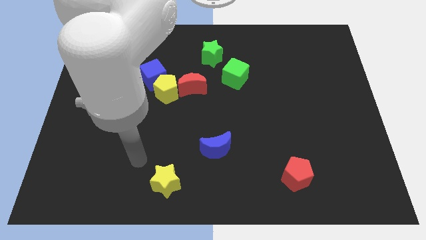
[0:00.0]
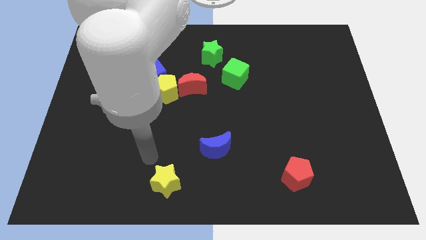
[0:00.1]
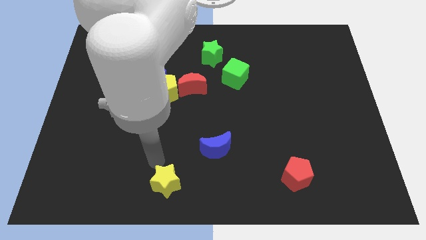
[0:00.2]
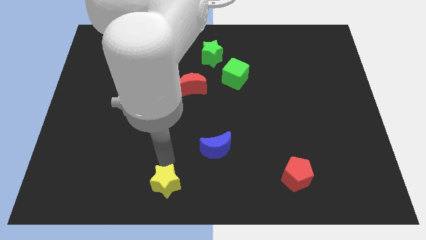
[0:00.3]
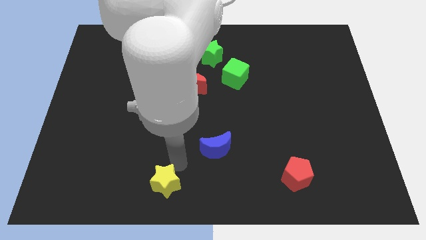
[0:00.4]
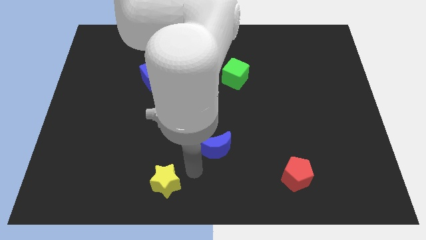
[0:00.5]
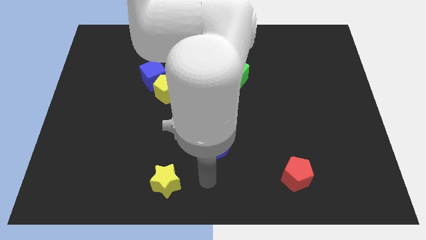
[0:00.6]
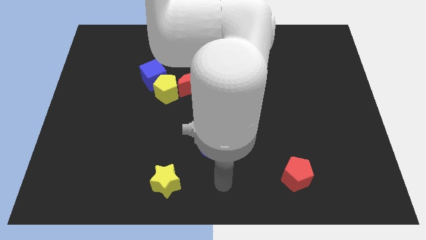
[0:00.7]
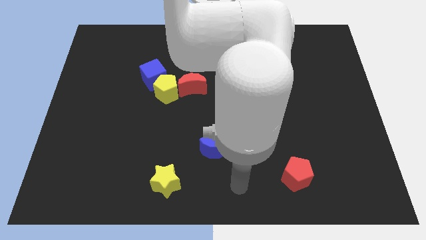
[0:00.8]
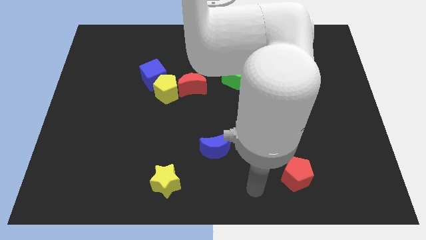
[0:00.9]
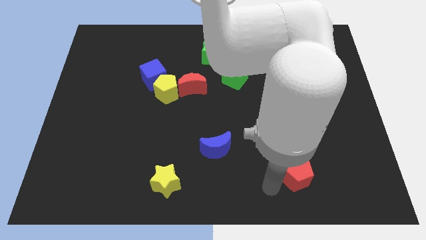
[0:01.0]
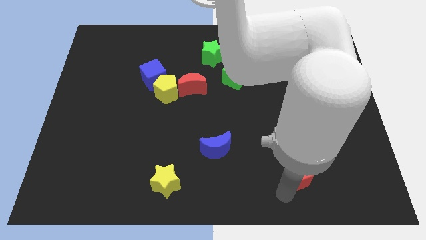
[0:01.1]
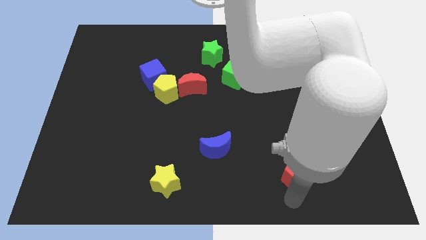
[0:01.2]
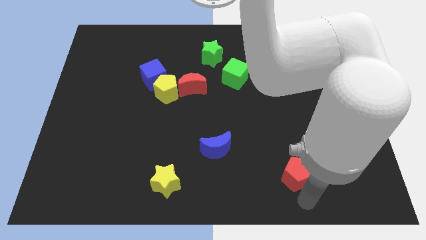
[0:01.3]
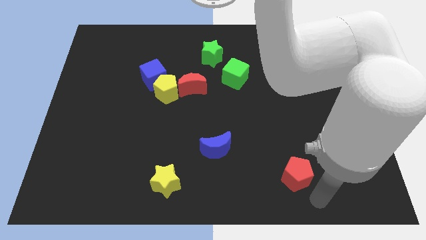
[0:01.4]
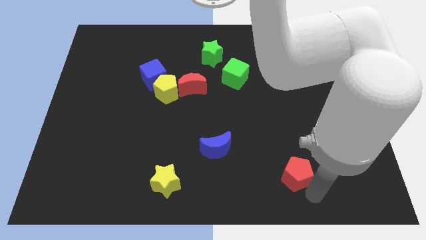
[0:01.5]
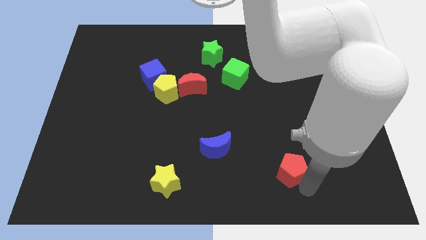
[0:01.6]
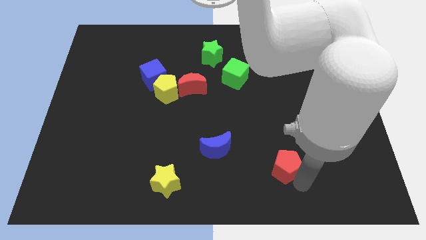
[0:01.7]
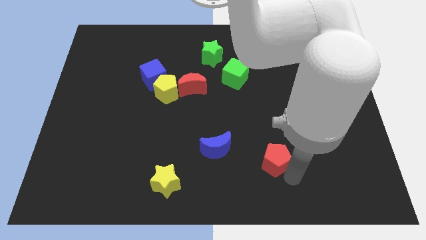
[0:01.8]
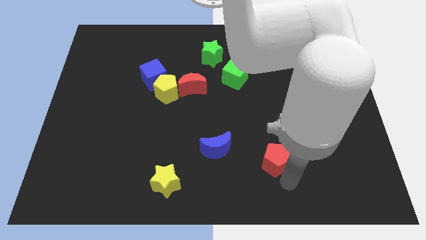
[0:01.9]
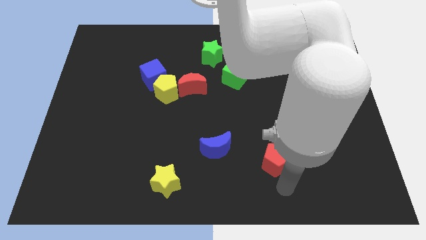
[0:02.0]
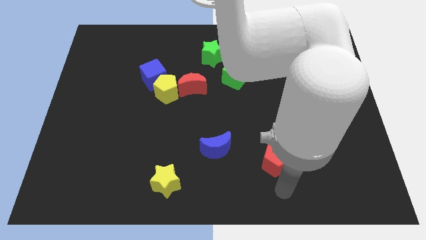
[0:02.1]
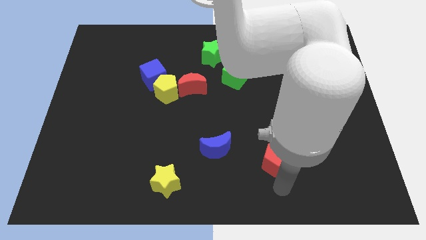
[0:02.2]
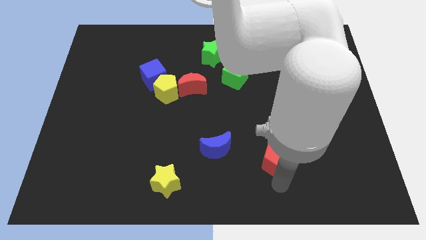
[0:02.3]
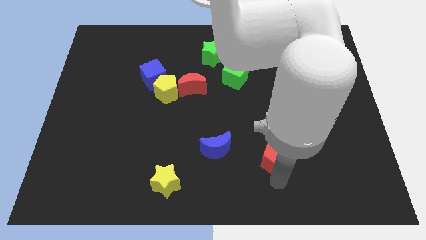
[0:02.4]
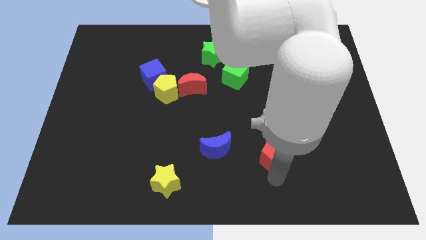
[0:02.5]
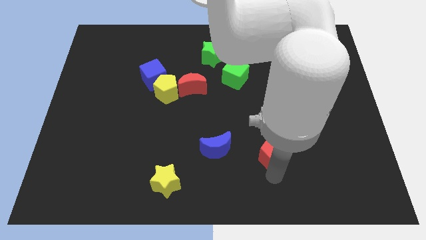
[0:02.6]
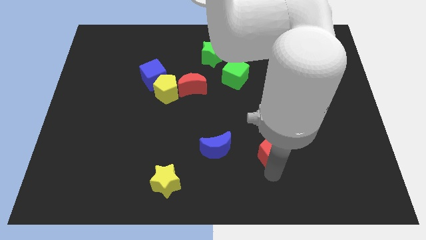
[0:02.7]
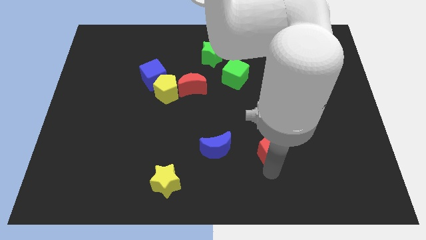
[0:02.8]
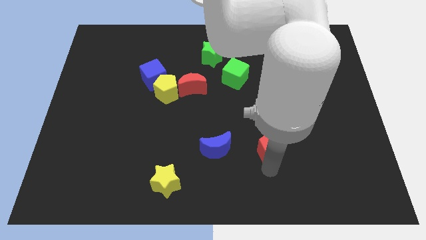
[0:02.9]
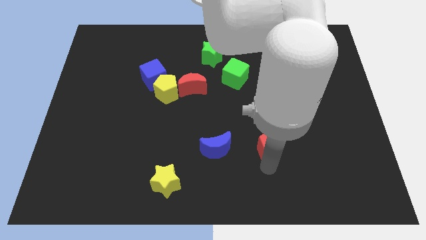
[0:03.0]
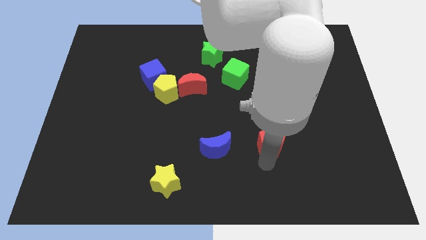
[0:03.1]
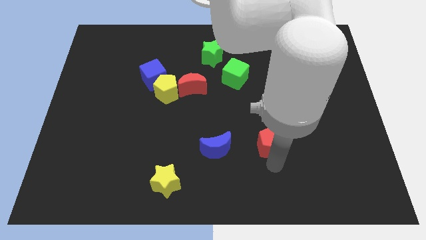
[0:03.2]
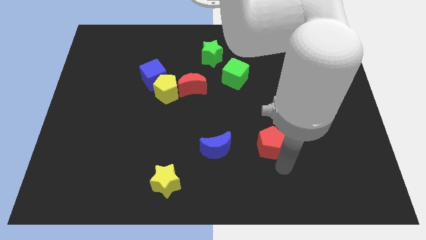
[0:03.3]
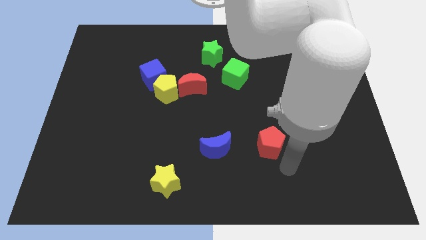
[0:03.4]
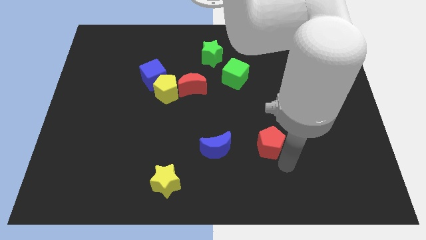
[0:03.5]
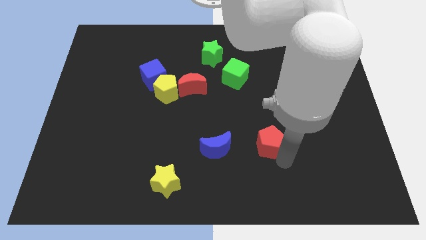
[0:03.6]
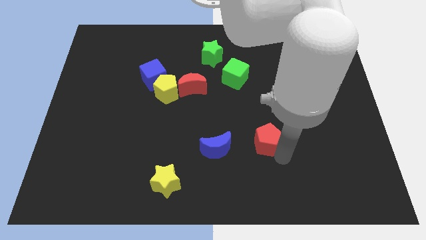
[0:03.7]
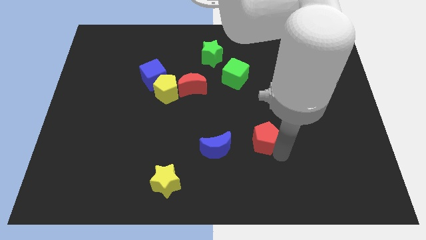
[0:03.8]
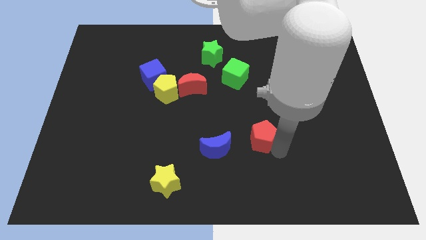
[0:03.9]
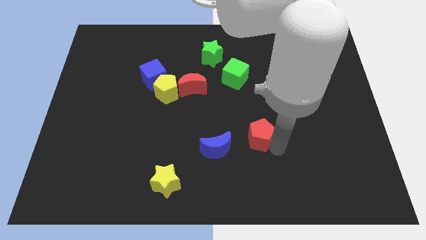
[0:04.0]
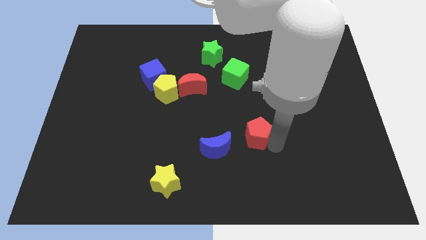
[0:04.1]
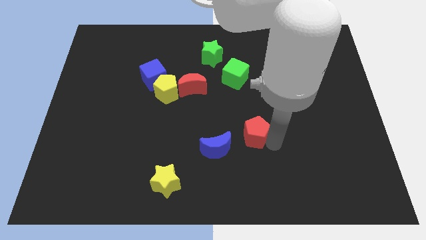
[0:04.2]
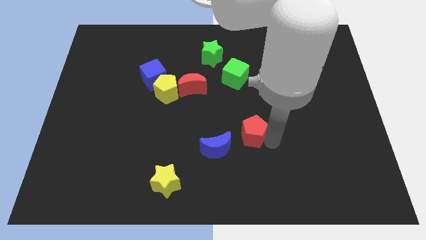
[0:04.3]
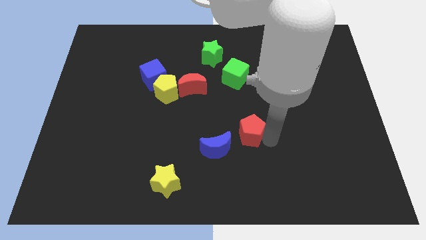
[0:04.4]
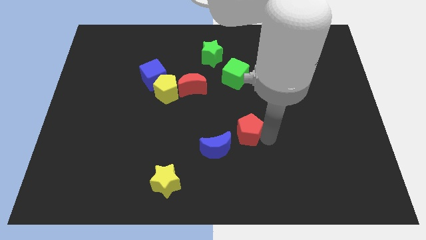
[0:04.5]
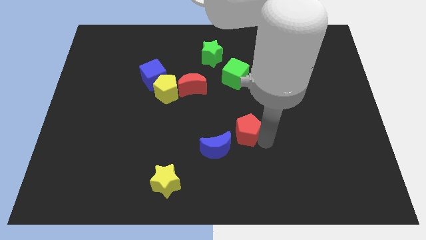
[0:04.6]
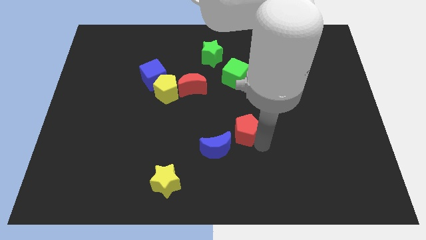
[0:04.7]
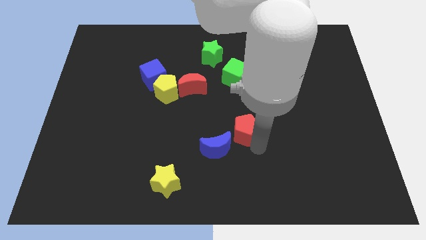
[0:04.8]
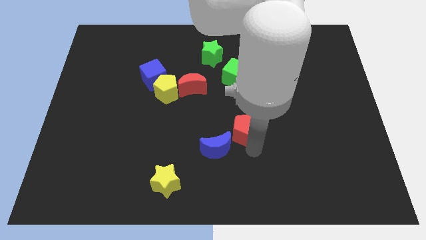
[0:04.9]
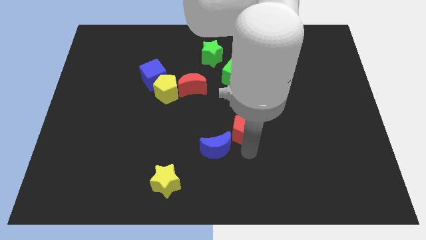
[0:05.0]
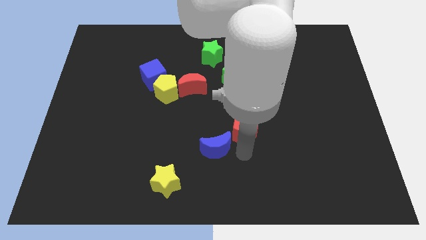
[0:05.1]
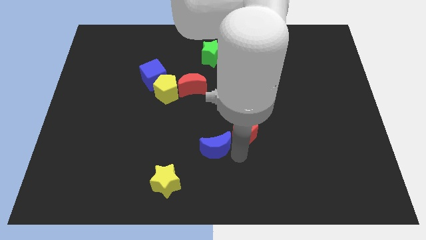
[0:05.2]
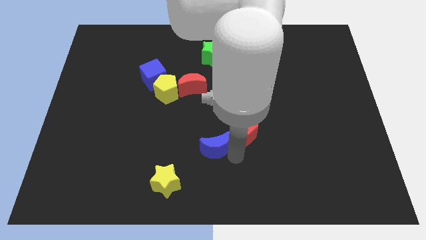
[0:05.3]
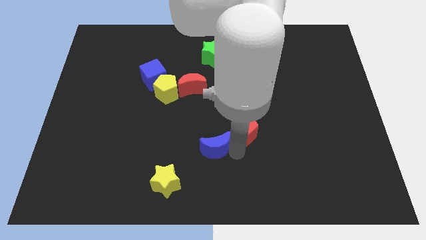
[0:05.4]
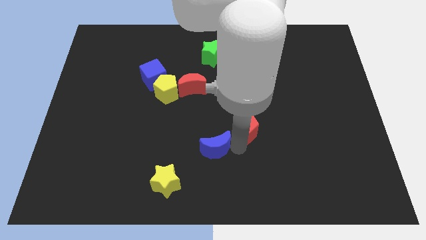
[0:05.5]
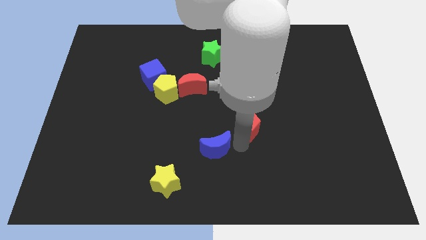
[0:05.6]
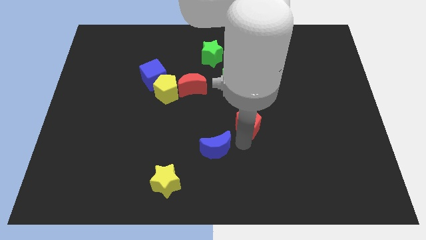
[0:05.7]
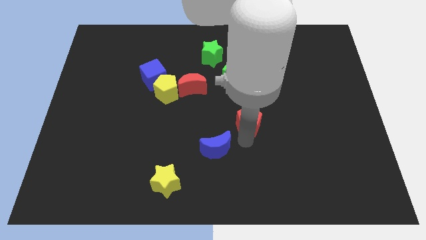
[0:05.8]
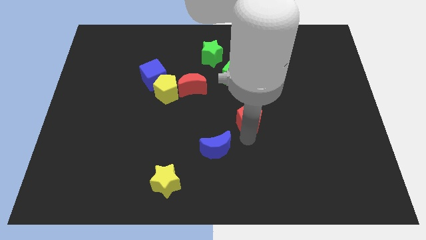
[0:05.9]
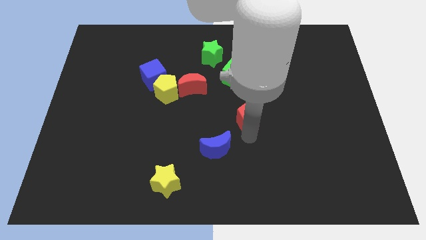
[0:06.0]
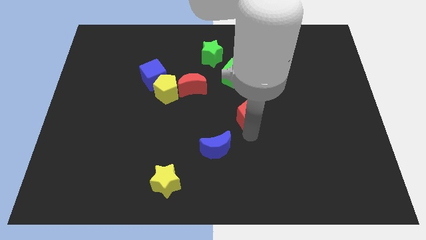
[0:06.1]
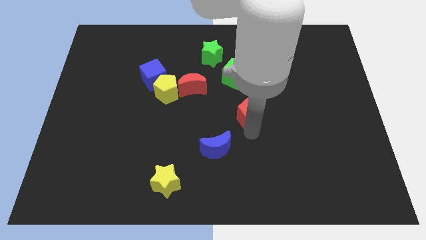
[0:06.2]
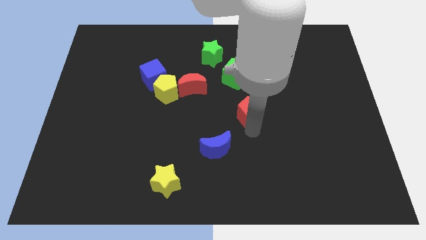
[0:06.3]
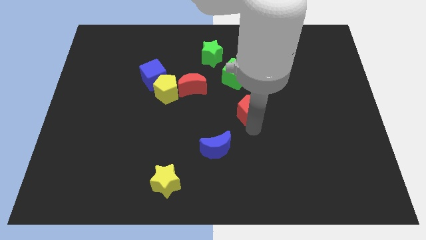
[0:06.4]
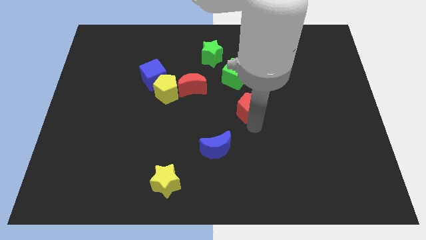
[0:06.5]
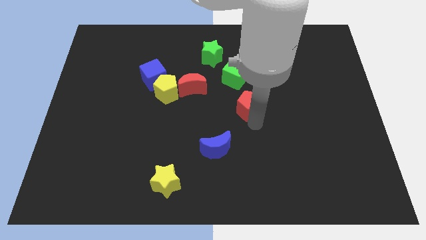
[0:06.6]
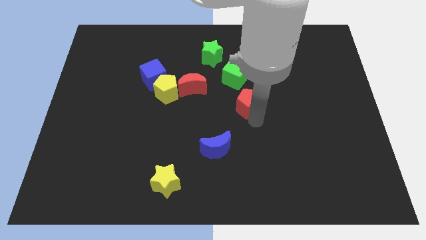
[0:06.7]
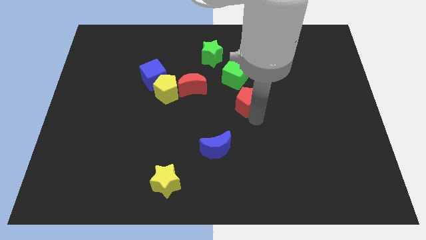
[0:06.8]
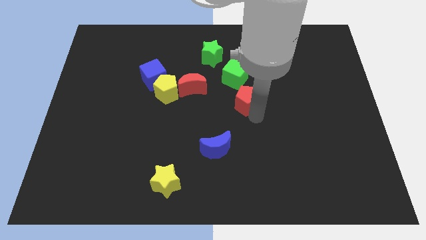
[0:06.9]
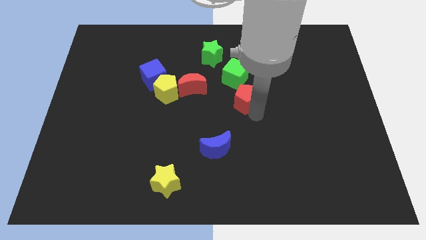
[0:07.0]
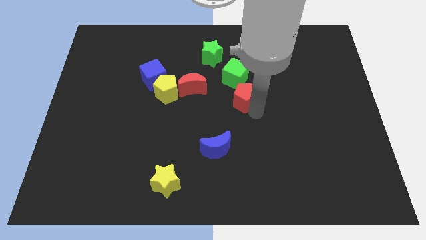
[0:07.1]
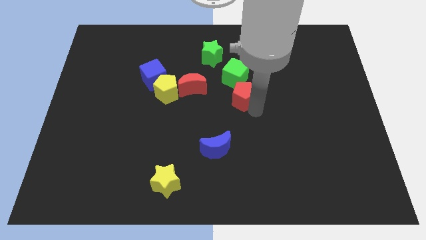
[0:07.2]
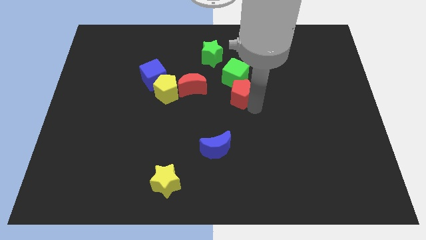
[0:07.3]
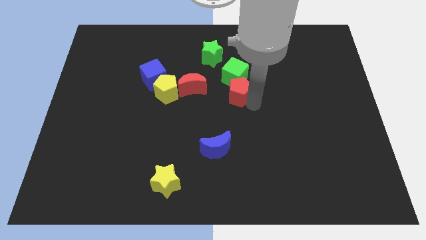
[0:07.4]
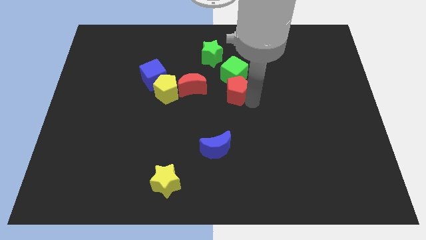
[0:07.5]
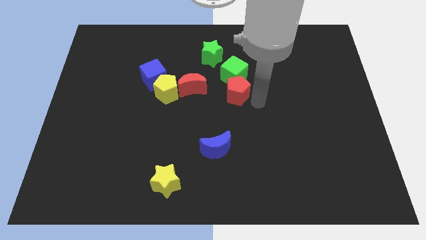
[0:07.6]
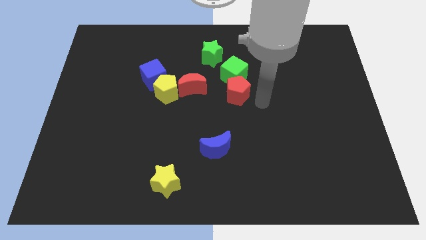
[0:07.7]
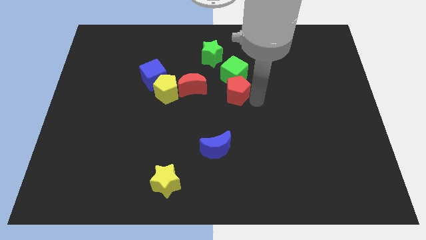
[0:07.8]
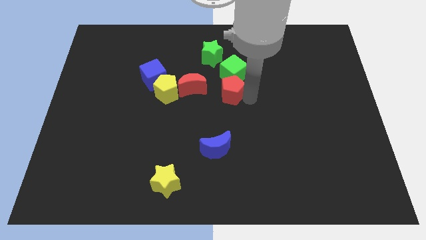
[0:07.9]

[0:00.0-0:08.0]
push the red pentagon below the green star
